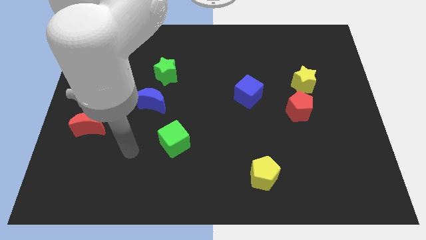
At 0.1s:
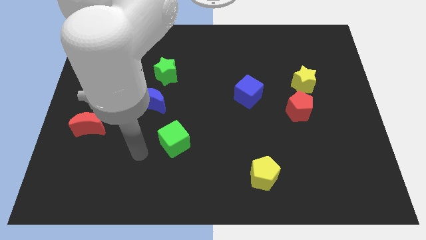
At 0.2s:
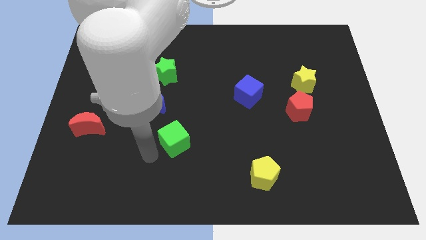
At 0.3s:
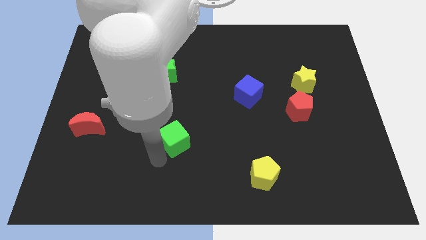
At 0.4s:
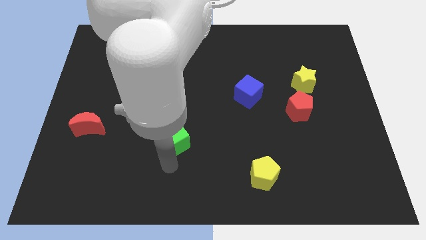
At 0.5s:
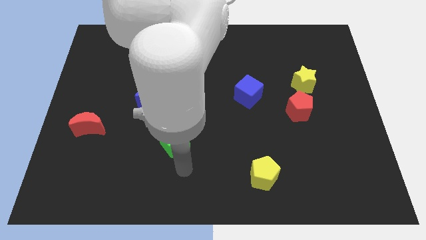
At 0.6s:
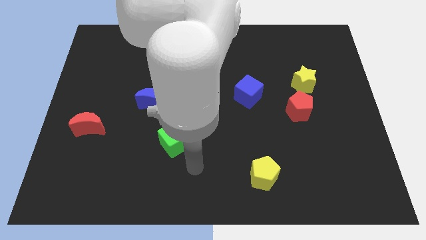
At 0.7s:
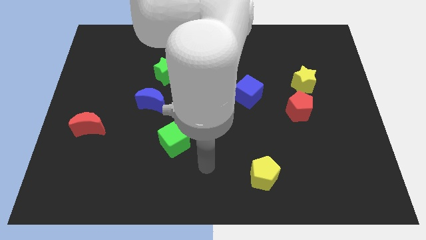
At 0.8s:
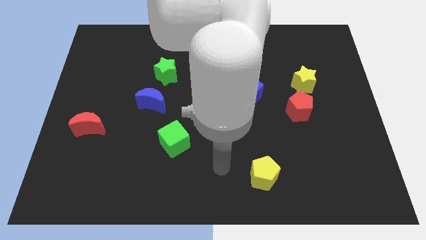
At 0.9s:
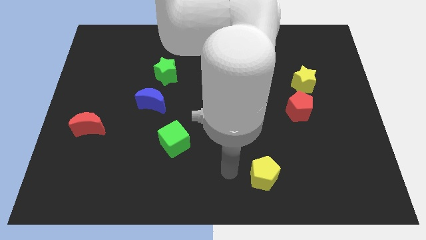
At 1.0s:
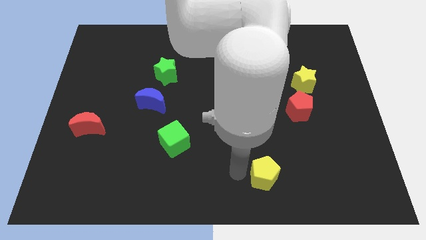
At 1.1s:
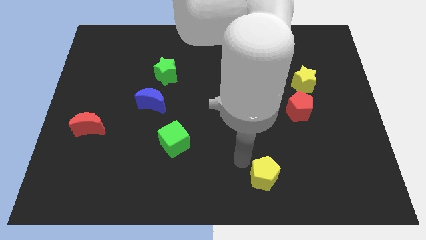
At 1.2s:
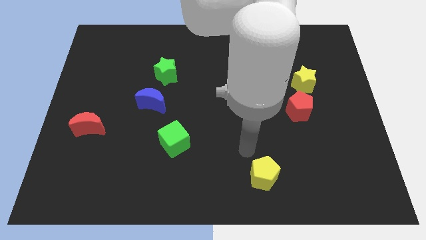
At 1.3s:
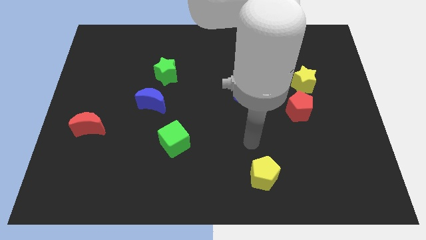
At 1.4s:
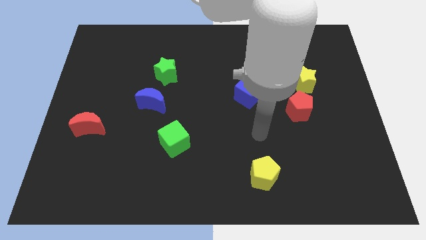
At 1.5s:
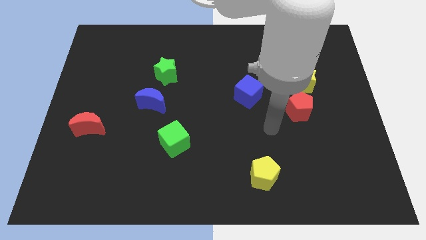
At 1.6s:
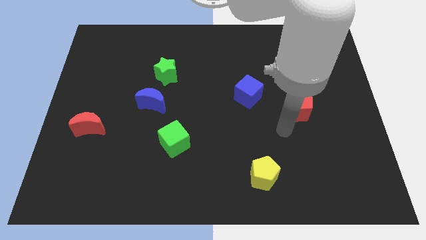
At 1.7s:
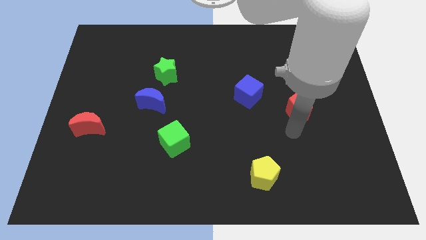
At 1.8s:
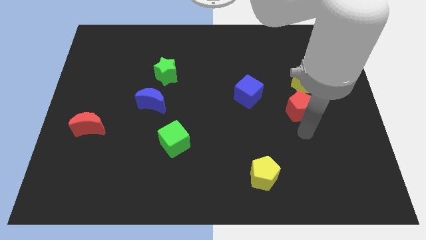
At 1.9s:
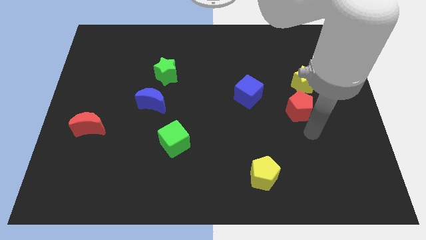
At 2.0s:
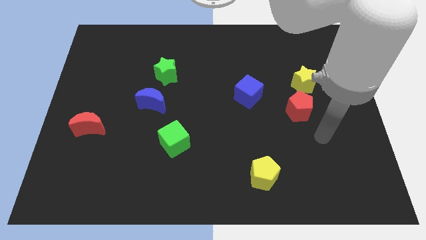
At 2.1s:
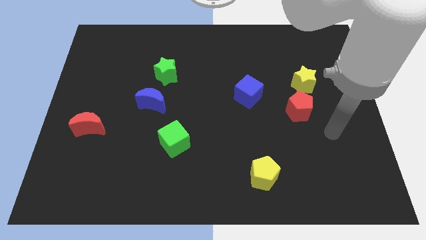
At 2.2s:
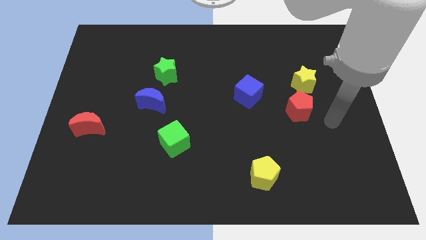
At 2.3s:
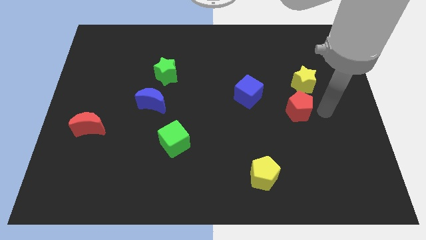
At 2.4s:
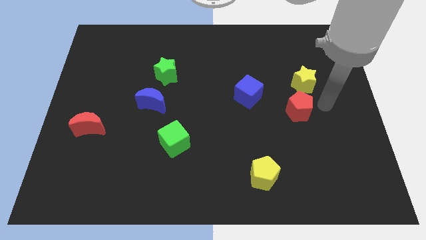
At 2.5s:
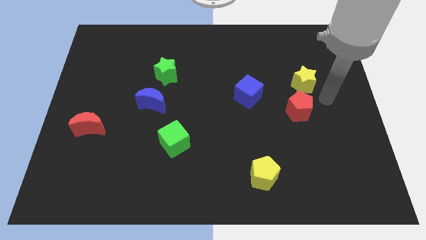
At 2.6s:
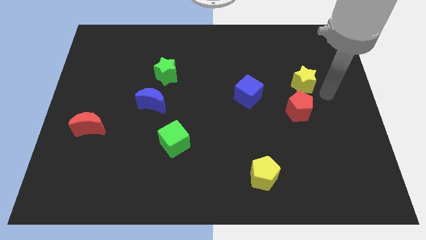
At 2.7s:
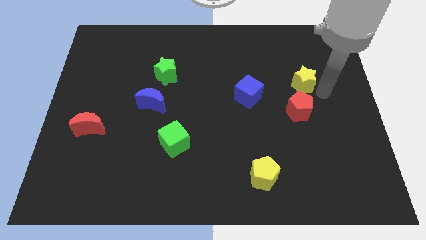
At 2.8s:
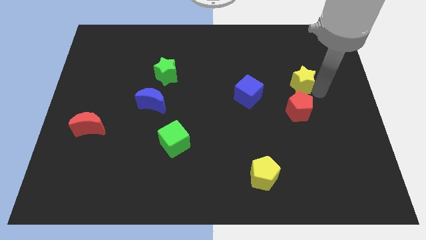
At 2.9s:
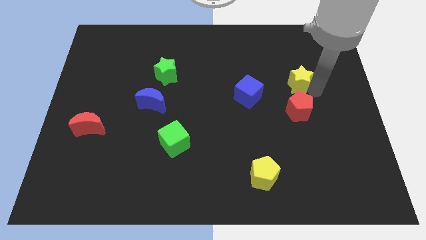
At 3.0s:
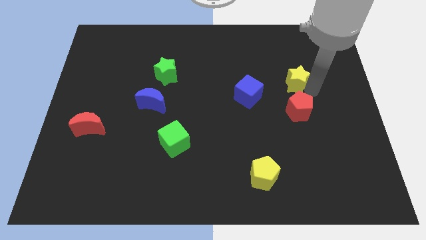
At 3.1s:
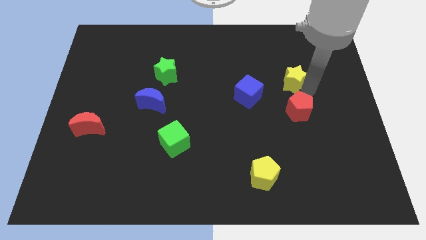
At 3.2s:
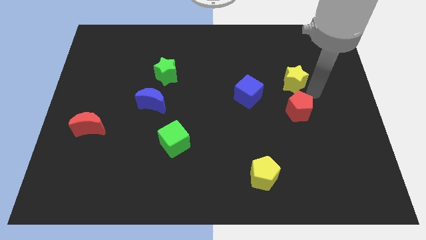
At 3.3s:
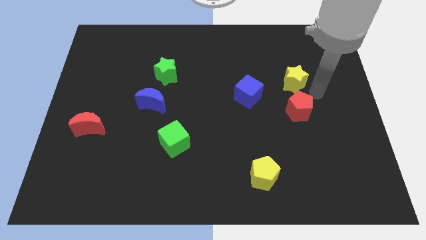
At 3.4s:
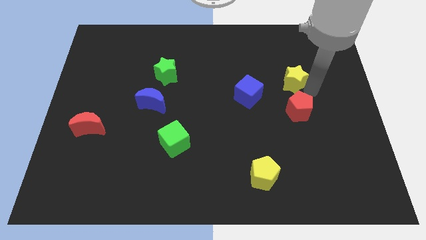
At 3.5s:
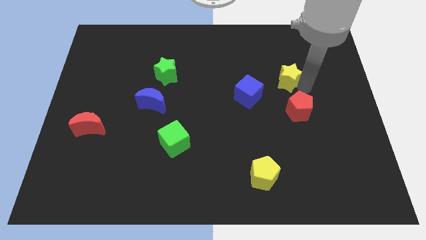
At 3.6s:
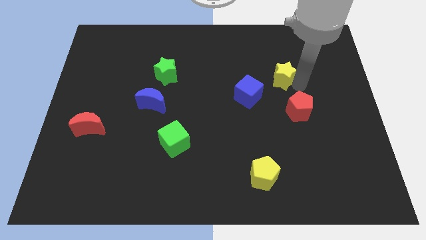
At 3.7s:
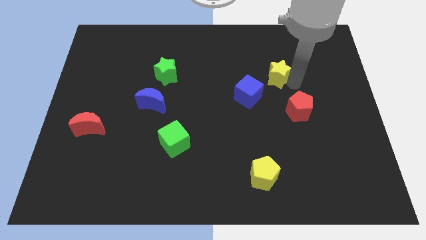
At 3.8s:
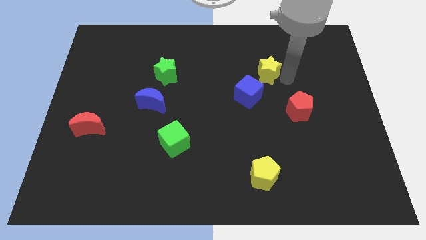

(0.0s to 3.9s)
slightly push the yellow star left

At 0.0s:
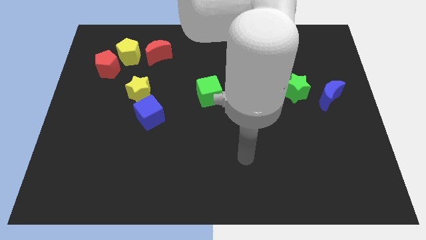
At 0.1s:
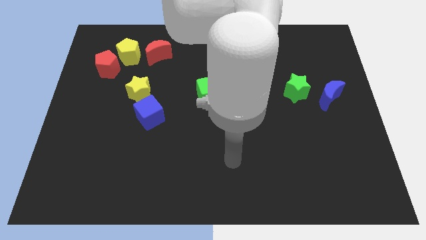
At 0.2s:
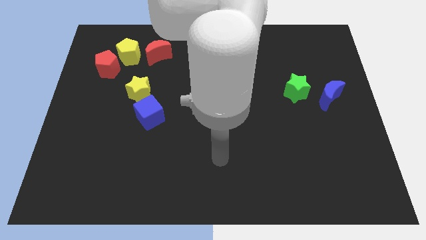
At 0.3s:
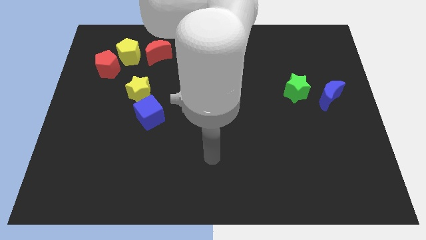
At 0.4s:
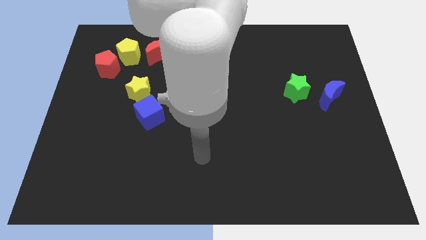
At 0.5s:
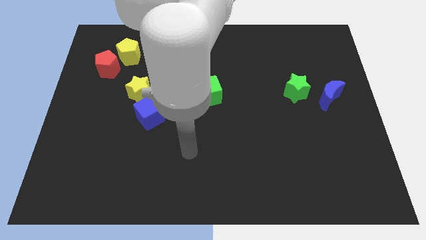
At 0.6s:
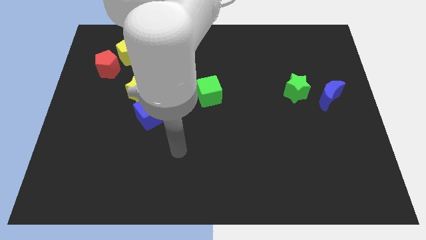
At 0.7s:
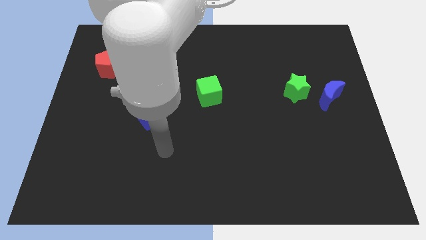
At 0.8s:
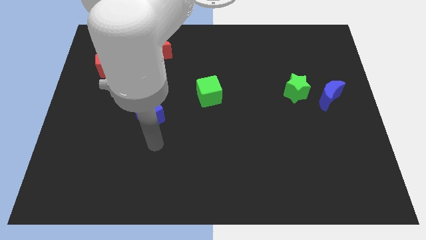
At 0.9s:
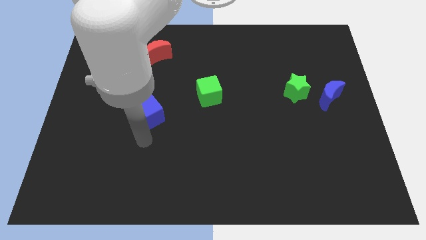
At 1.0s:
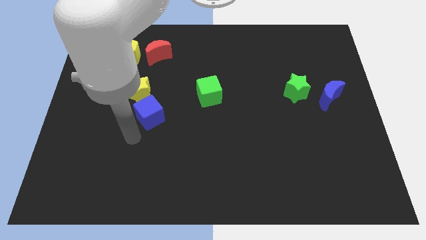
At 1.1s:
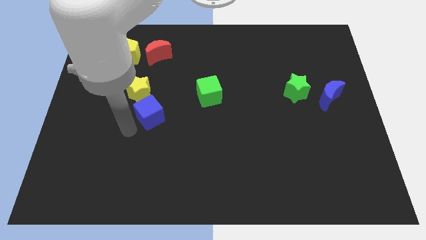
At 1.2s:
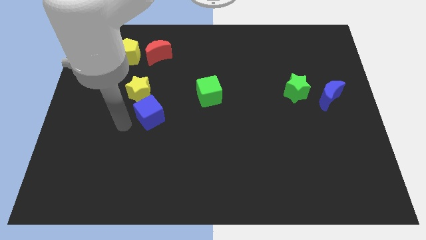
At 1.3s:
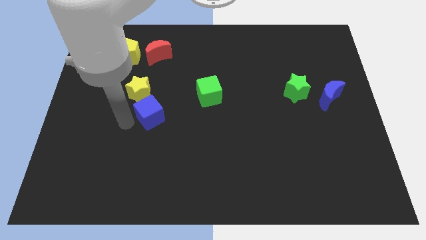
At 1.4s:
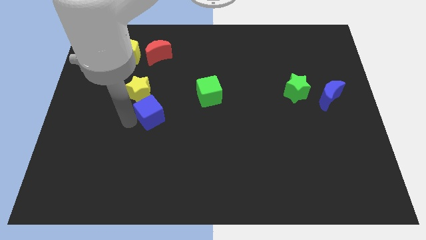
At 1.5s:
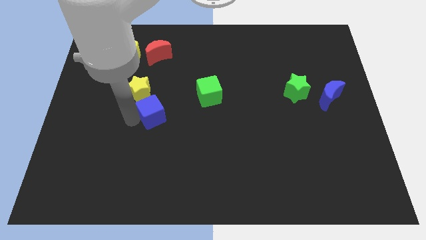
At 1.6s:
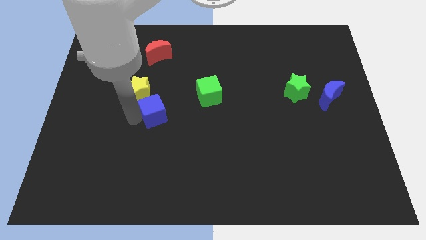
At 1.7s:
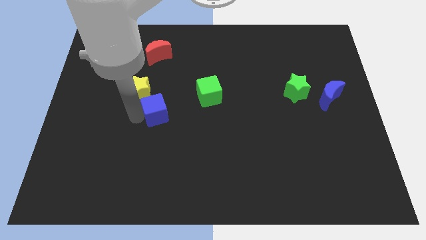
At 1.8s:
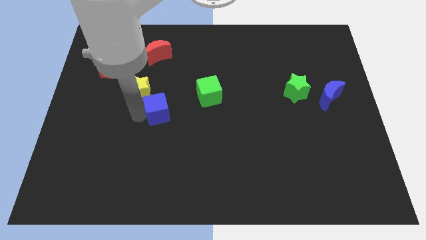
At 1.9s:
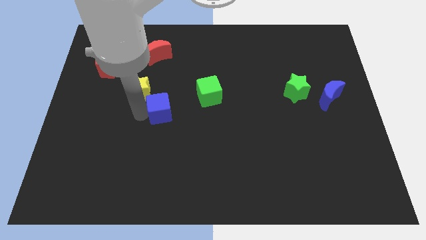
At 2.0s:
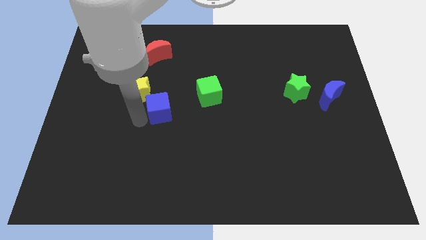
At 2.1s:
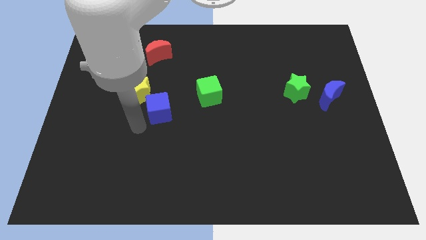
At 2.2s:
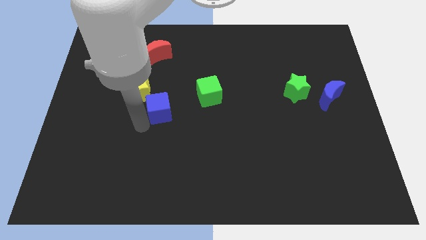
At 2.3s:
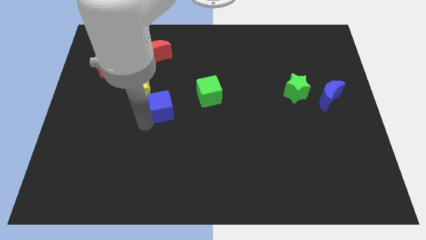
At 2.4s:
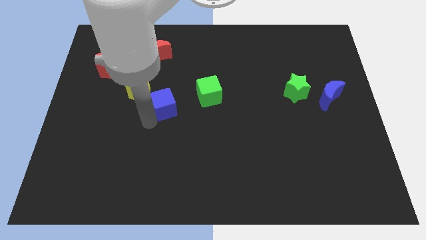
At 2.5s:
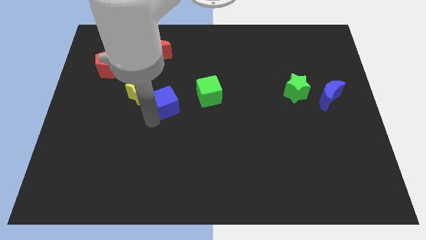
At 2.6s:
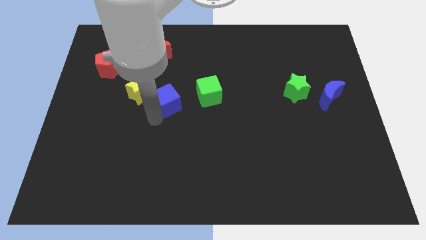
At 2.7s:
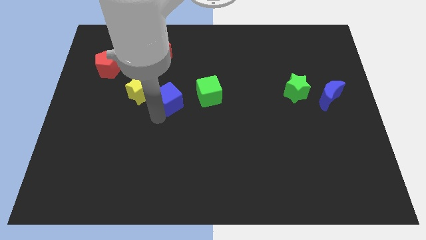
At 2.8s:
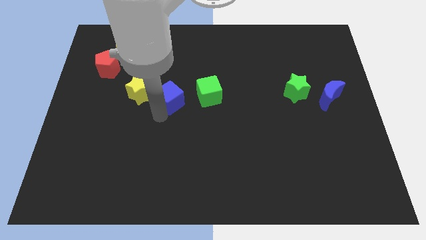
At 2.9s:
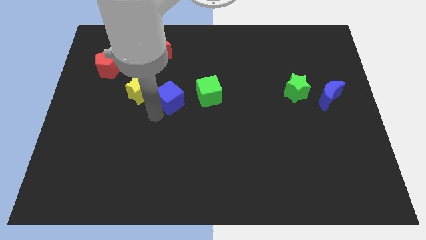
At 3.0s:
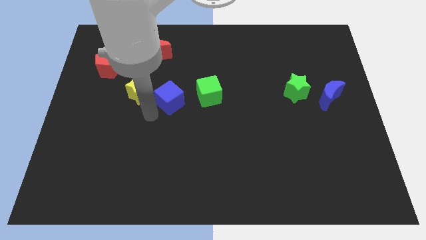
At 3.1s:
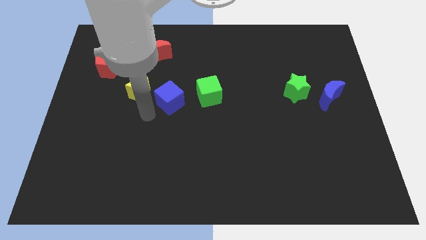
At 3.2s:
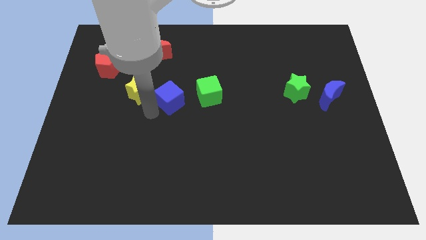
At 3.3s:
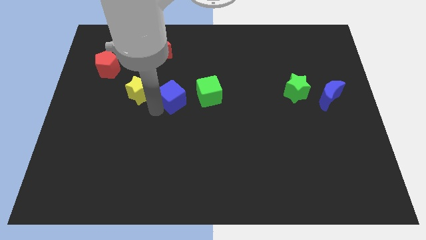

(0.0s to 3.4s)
slide the blue cube a little bit diagonally up and to the right

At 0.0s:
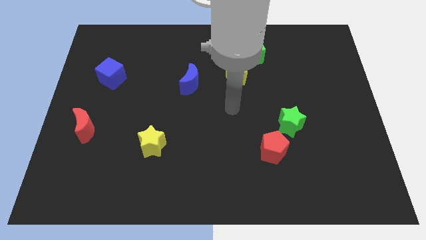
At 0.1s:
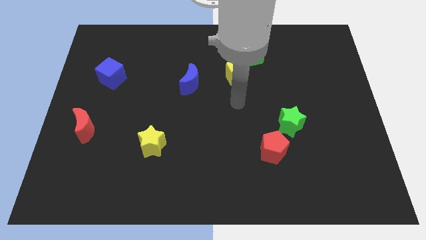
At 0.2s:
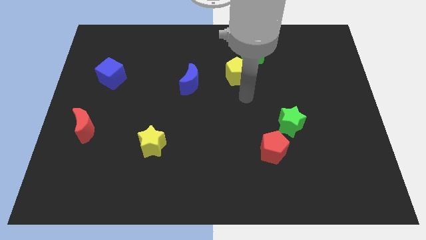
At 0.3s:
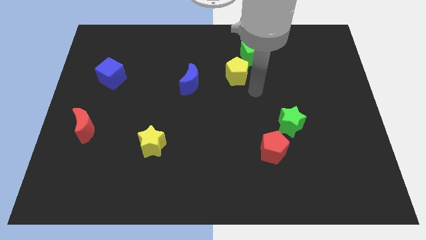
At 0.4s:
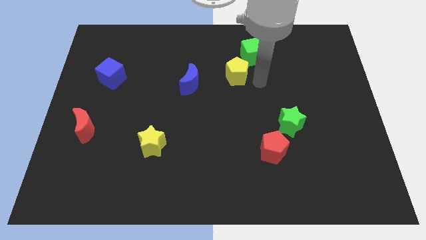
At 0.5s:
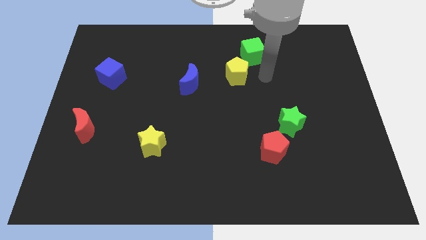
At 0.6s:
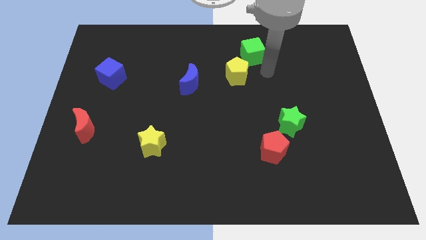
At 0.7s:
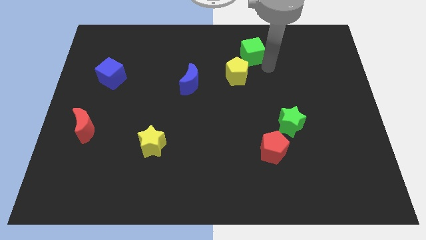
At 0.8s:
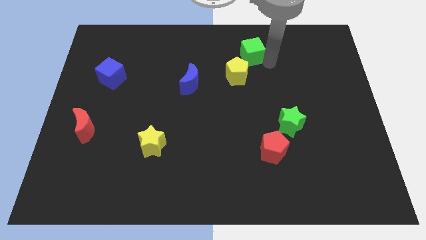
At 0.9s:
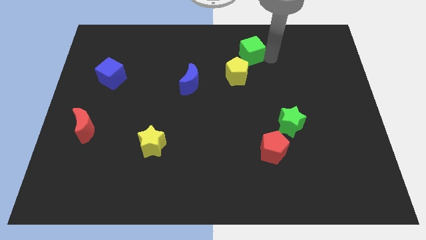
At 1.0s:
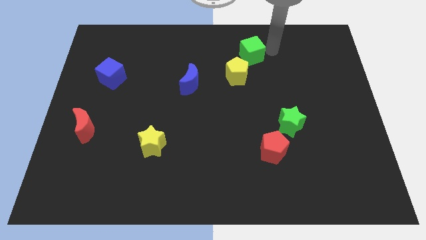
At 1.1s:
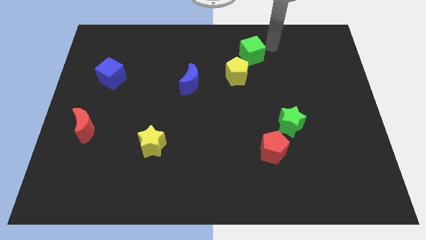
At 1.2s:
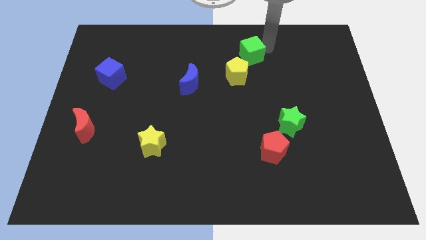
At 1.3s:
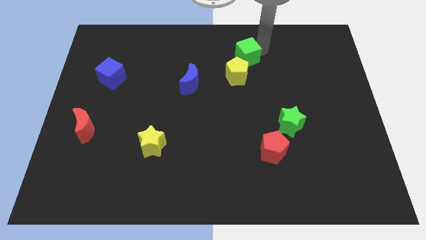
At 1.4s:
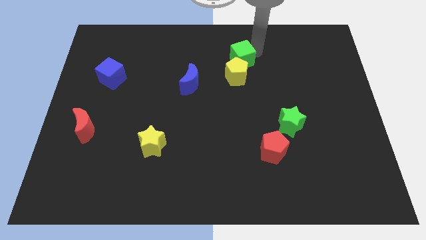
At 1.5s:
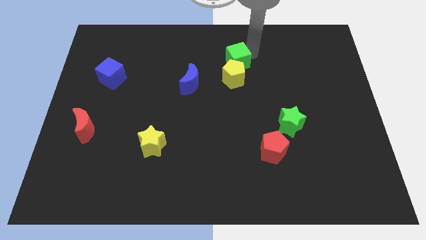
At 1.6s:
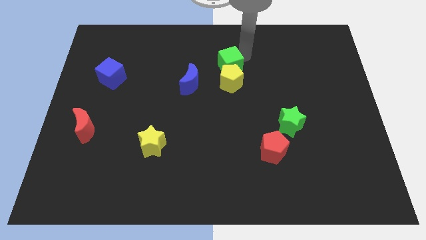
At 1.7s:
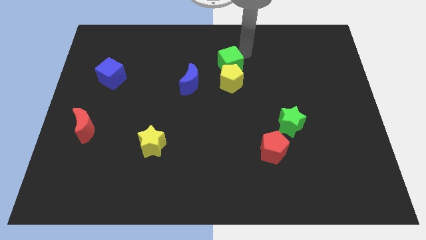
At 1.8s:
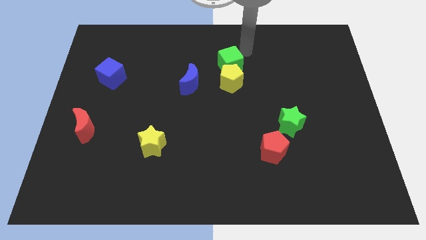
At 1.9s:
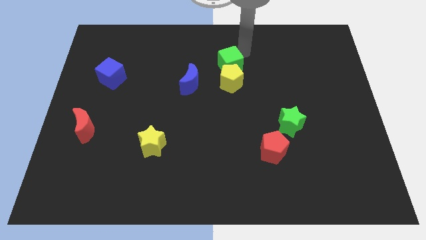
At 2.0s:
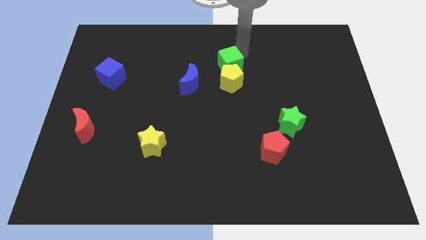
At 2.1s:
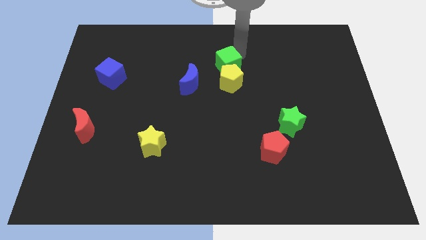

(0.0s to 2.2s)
move the green cube somewhat down and then to the left
